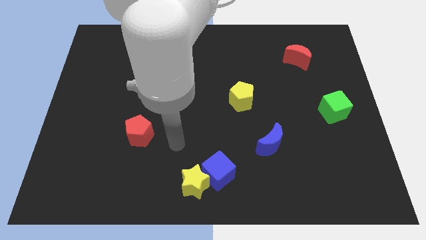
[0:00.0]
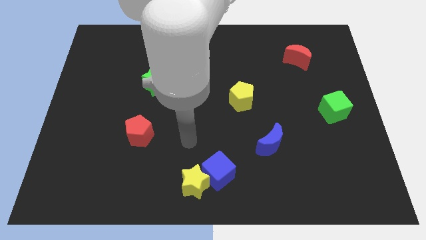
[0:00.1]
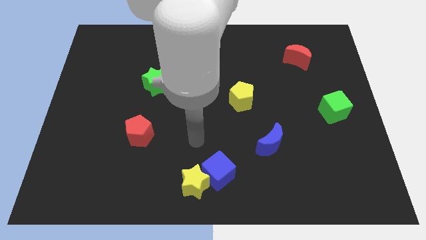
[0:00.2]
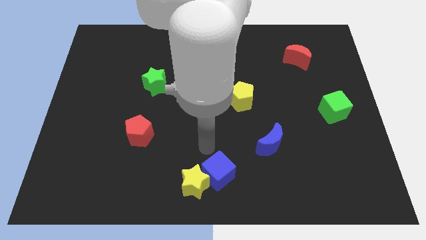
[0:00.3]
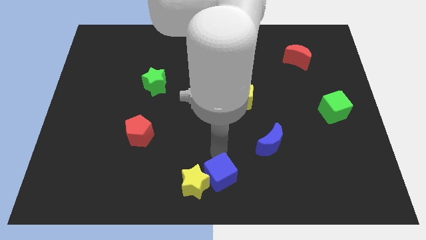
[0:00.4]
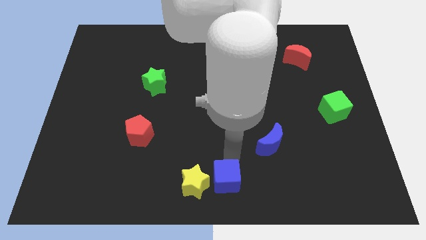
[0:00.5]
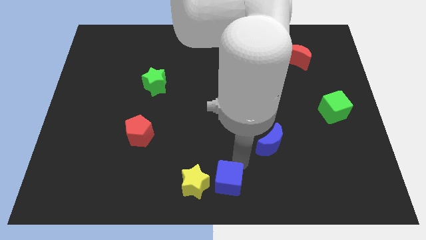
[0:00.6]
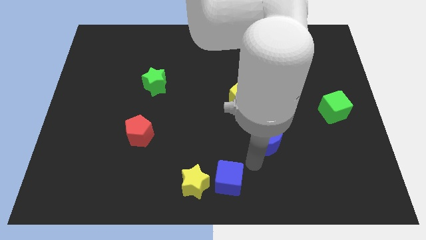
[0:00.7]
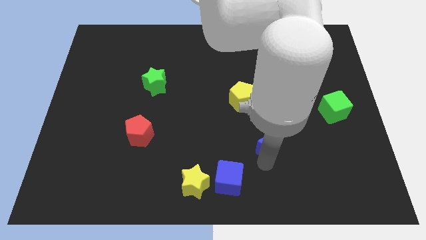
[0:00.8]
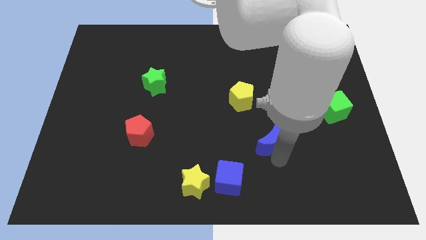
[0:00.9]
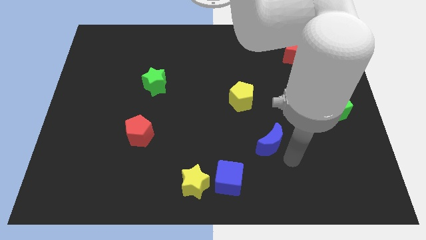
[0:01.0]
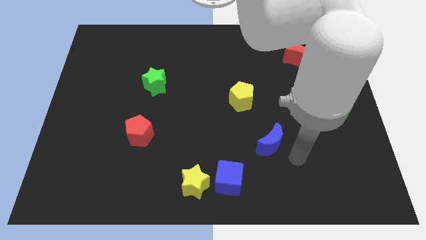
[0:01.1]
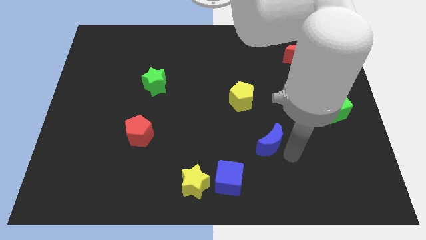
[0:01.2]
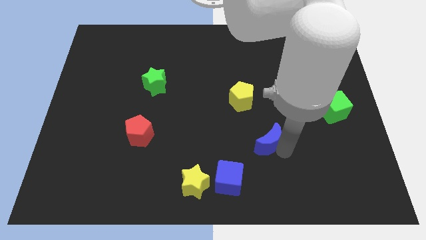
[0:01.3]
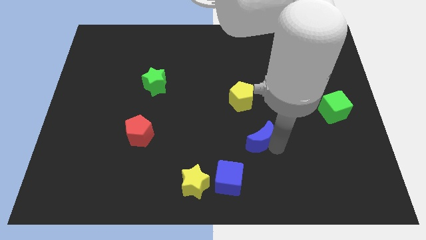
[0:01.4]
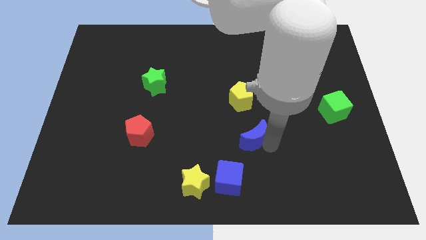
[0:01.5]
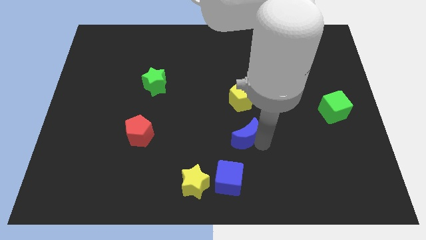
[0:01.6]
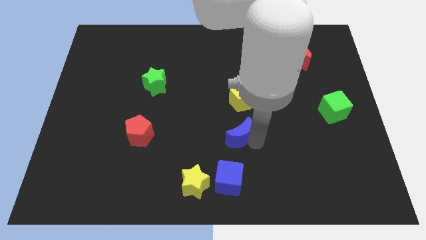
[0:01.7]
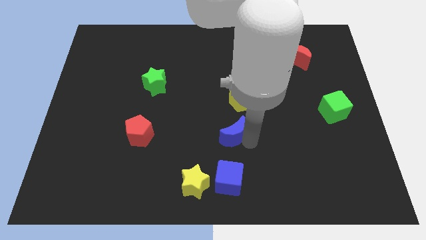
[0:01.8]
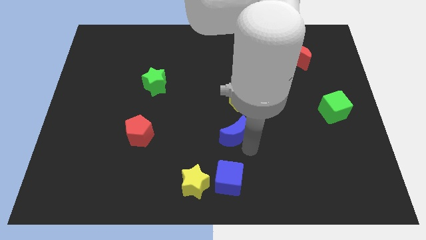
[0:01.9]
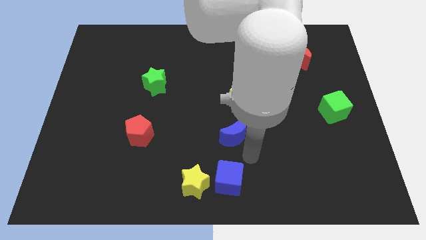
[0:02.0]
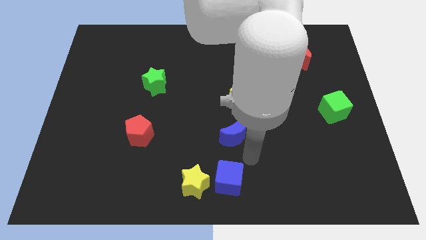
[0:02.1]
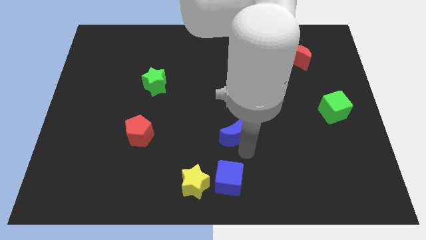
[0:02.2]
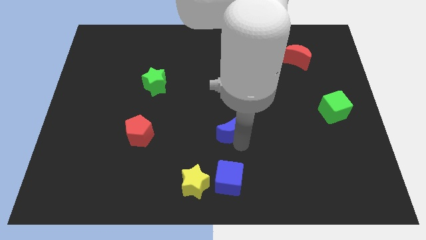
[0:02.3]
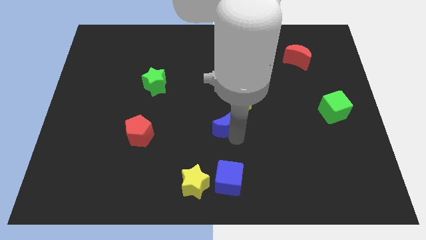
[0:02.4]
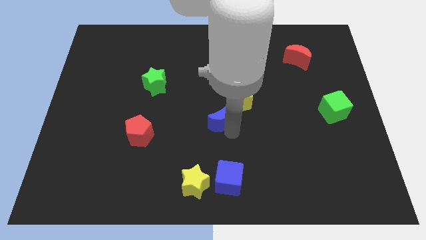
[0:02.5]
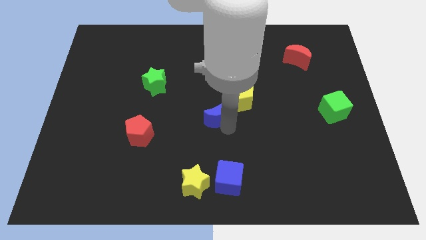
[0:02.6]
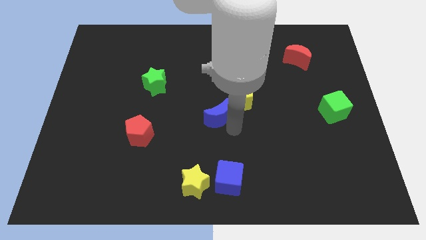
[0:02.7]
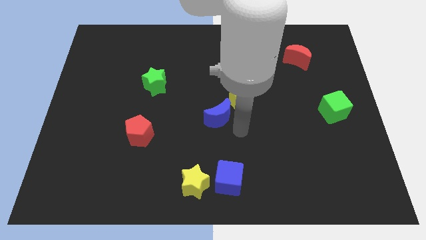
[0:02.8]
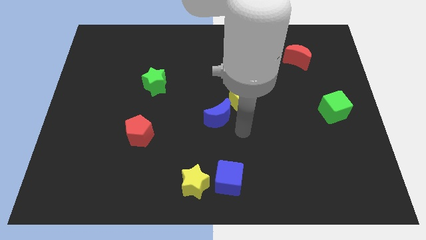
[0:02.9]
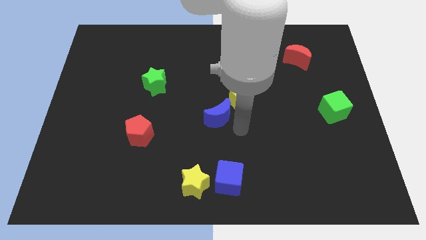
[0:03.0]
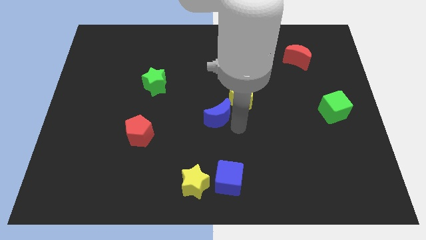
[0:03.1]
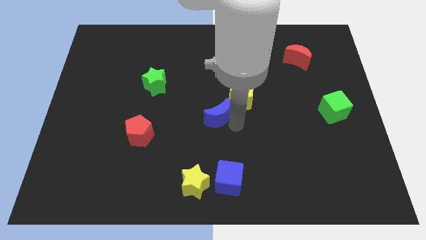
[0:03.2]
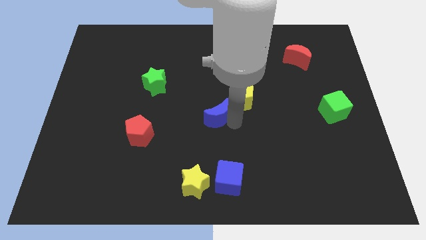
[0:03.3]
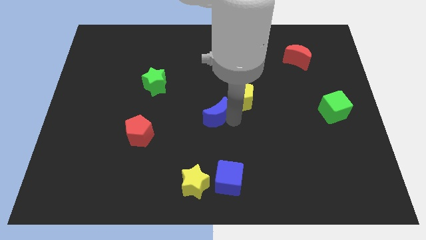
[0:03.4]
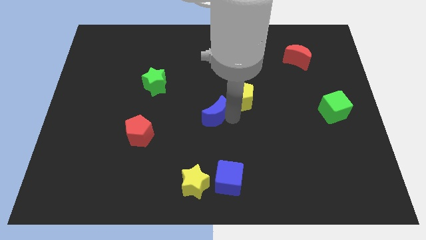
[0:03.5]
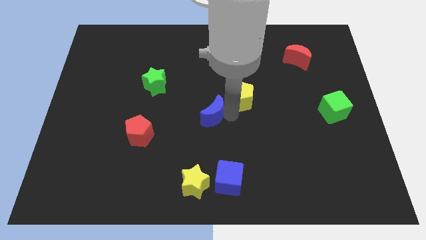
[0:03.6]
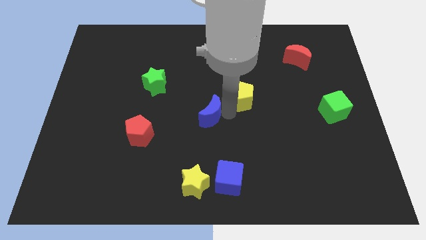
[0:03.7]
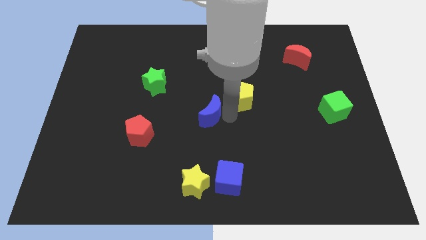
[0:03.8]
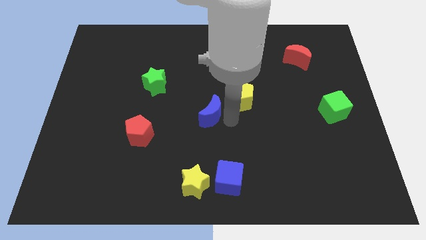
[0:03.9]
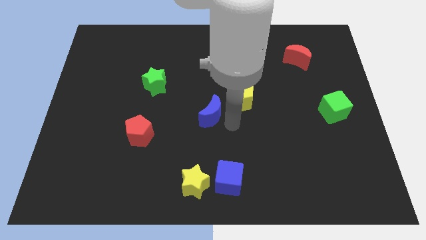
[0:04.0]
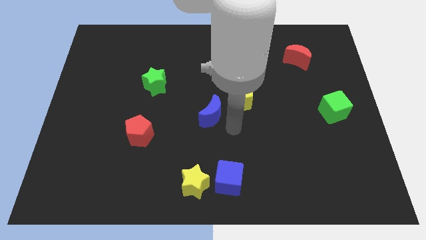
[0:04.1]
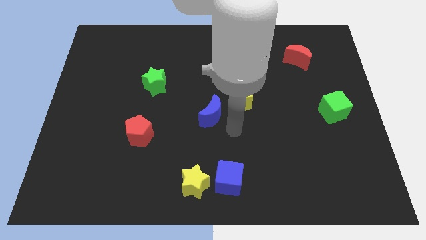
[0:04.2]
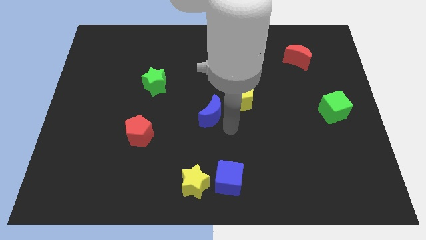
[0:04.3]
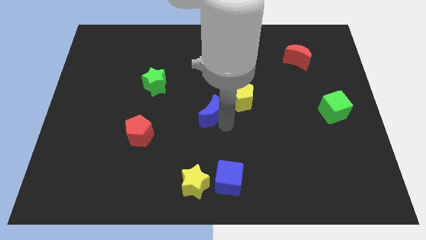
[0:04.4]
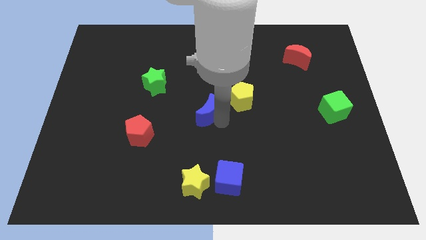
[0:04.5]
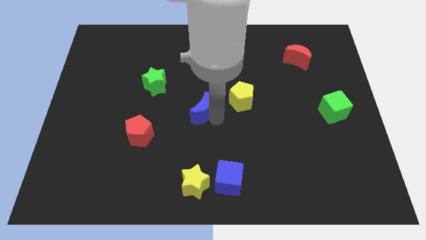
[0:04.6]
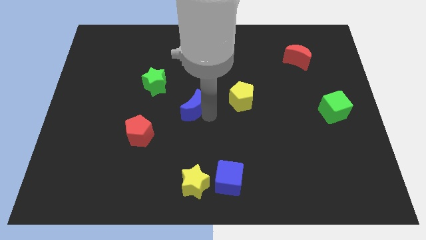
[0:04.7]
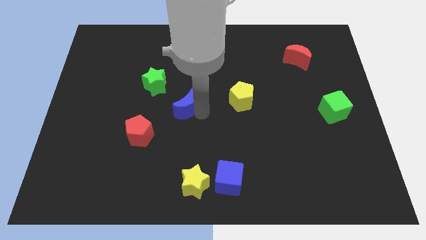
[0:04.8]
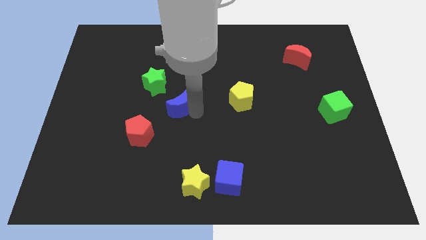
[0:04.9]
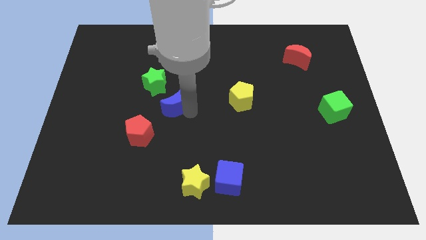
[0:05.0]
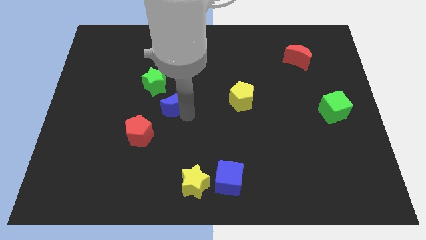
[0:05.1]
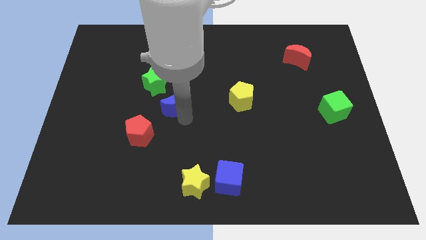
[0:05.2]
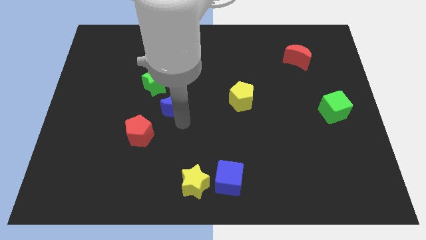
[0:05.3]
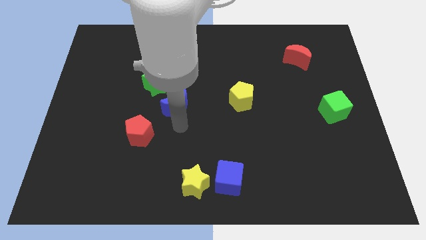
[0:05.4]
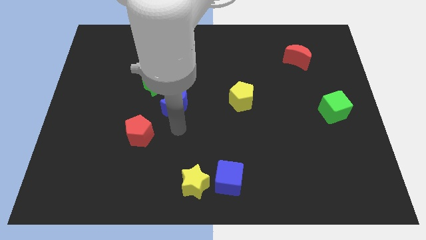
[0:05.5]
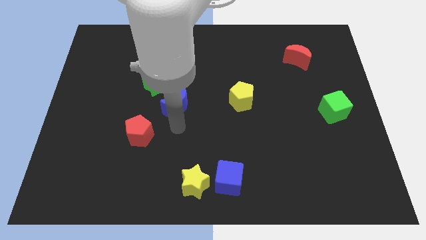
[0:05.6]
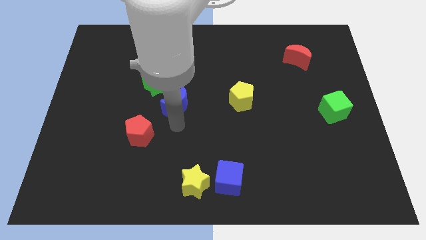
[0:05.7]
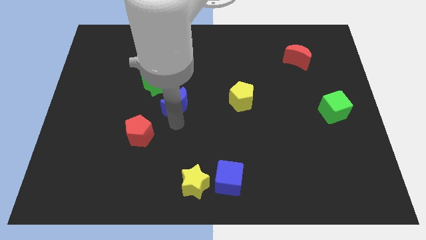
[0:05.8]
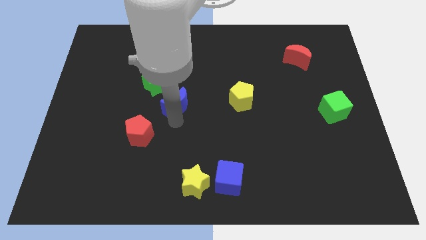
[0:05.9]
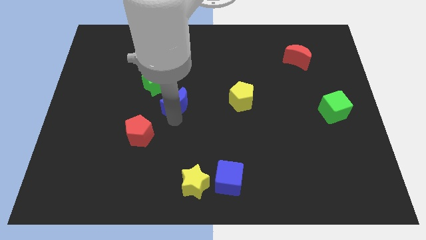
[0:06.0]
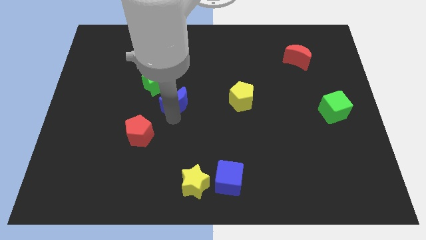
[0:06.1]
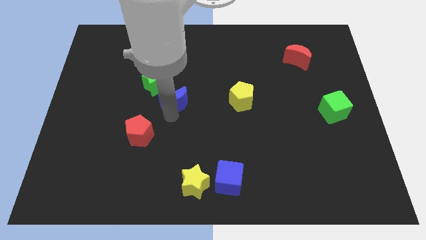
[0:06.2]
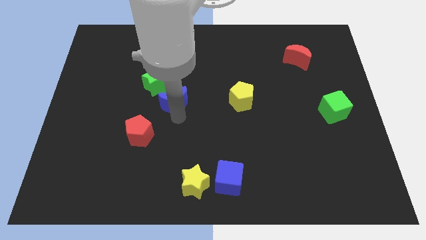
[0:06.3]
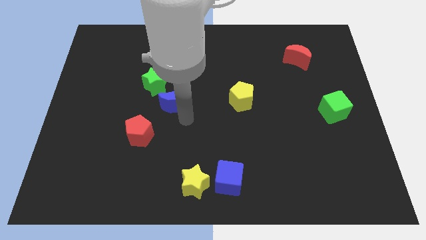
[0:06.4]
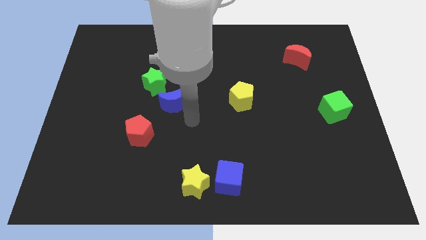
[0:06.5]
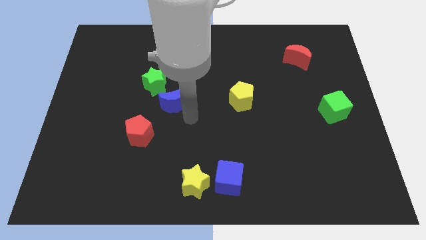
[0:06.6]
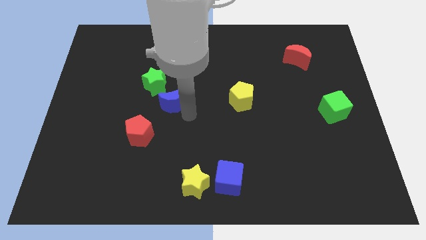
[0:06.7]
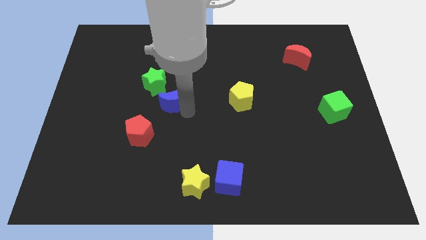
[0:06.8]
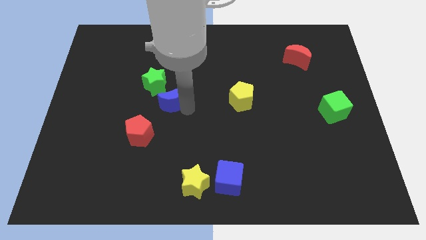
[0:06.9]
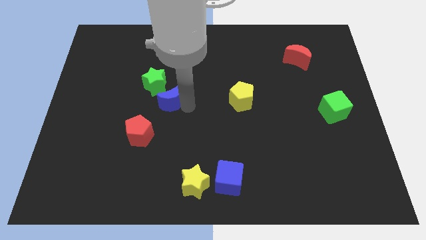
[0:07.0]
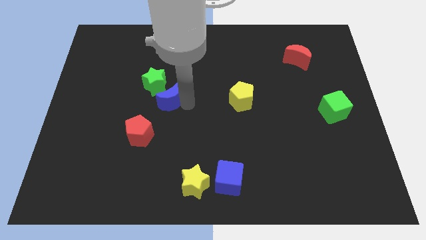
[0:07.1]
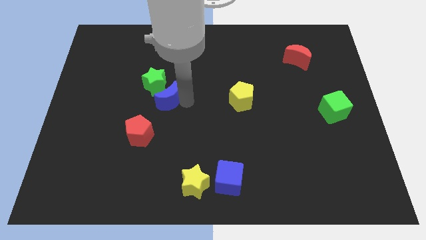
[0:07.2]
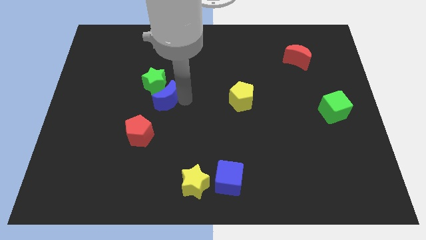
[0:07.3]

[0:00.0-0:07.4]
push the blue moon next to the green star
